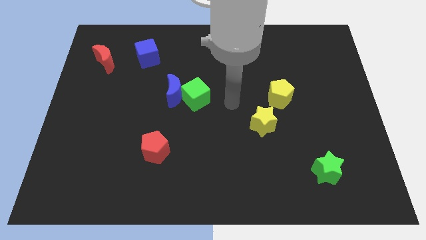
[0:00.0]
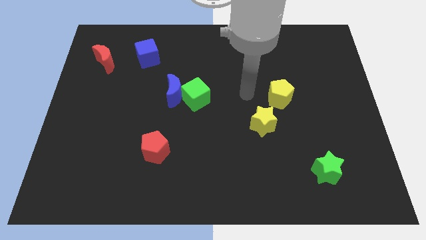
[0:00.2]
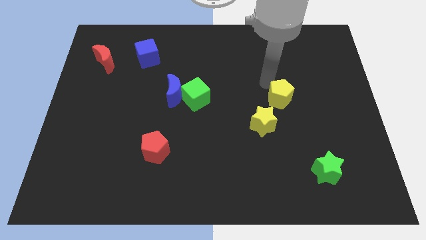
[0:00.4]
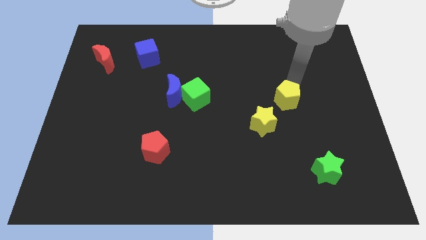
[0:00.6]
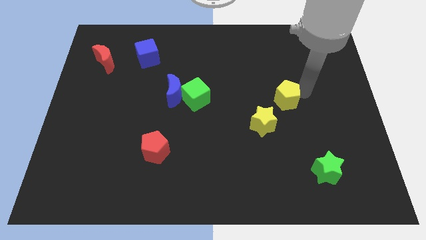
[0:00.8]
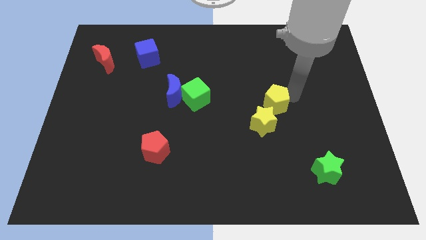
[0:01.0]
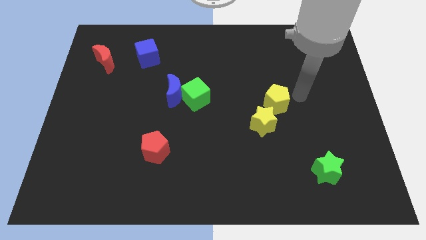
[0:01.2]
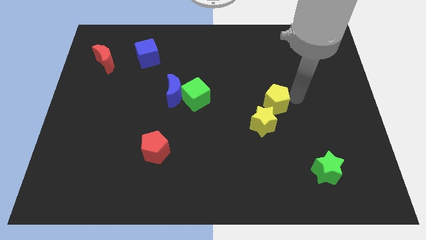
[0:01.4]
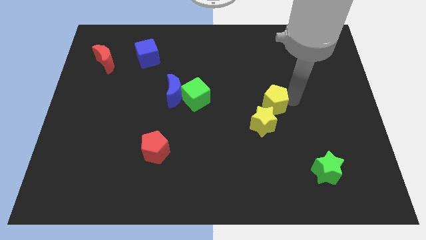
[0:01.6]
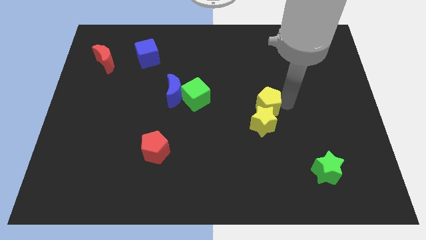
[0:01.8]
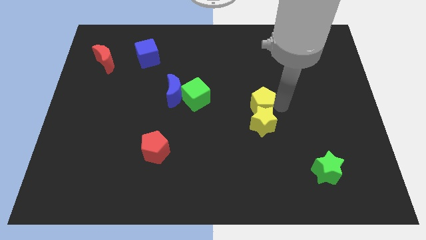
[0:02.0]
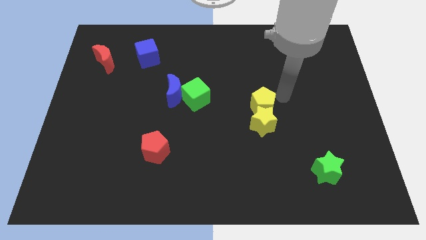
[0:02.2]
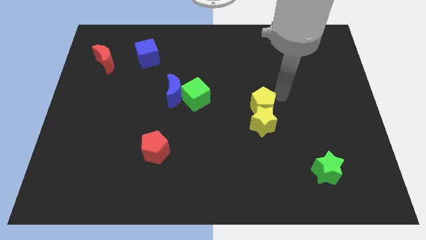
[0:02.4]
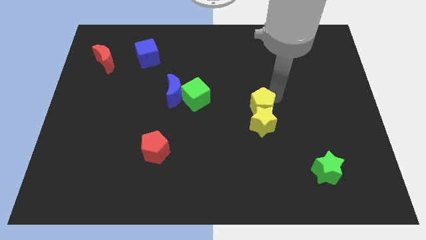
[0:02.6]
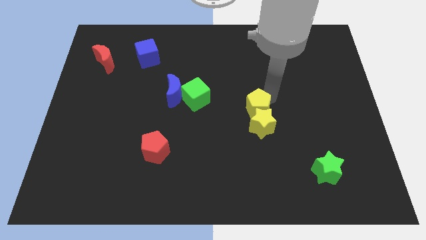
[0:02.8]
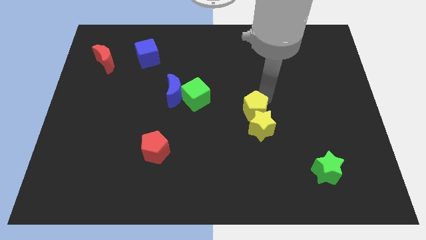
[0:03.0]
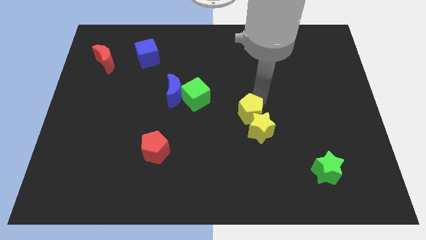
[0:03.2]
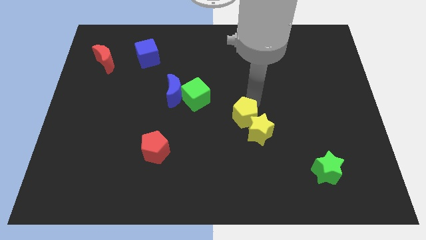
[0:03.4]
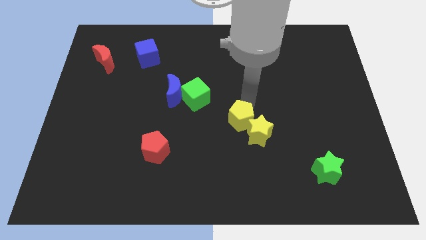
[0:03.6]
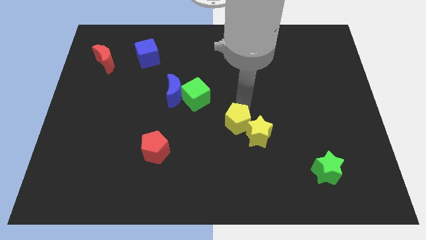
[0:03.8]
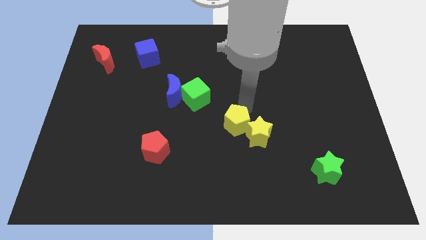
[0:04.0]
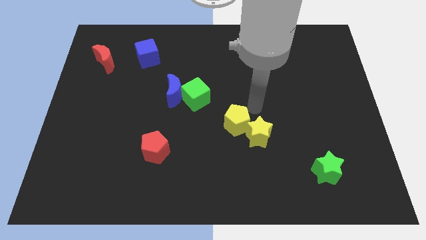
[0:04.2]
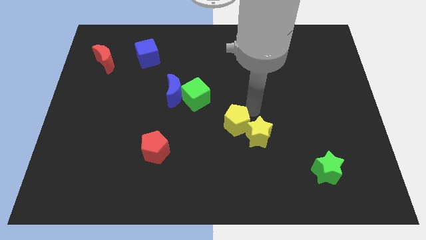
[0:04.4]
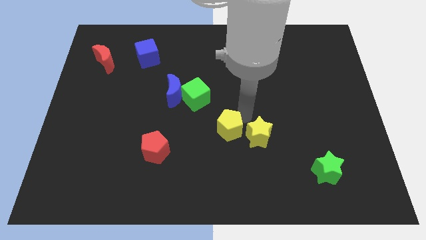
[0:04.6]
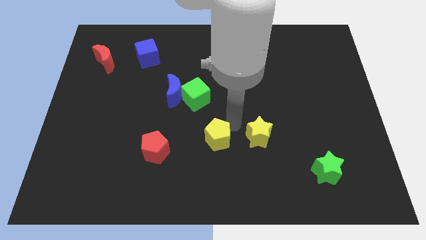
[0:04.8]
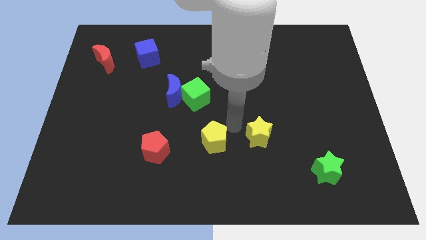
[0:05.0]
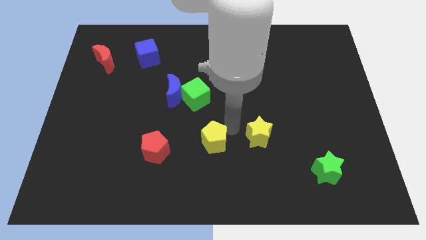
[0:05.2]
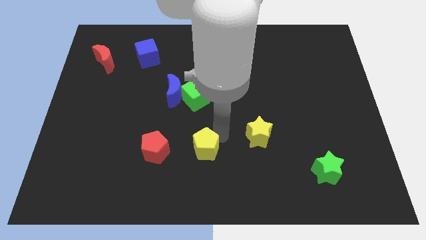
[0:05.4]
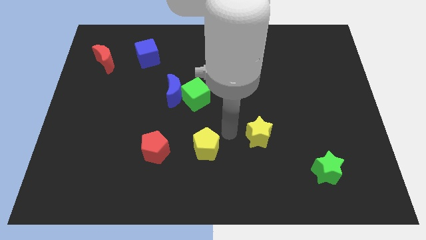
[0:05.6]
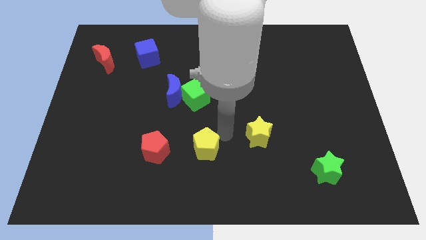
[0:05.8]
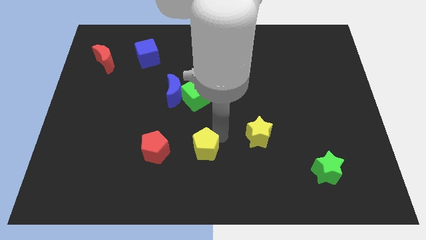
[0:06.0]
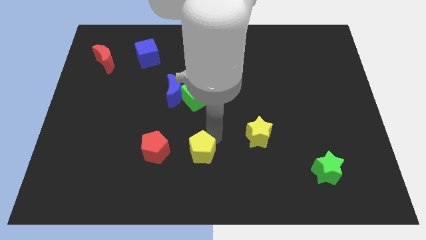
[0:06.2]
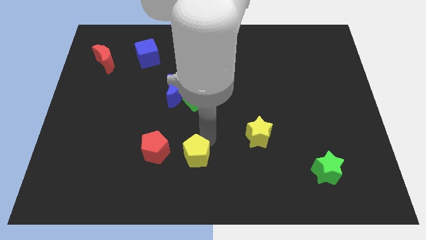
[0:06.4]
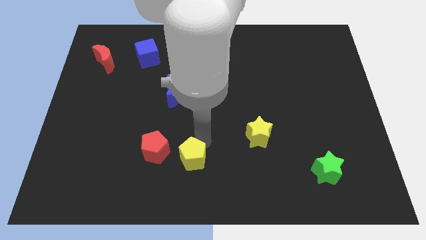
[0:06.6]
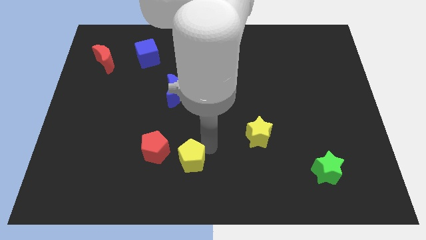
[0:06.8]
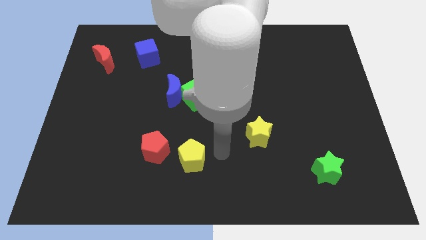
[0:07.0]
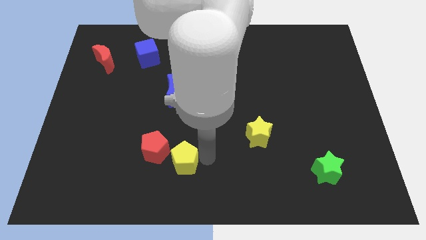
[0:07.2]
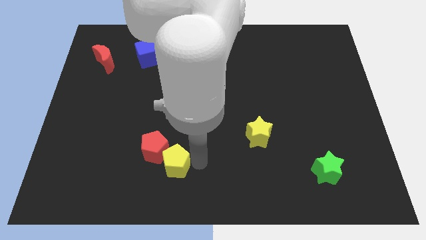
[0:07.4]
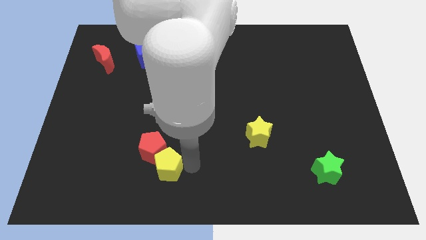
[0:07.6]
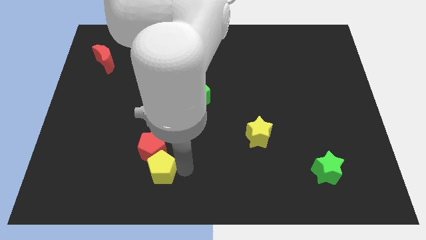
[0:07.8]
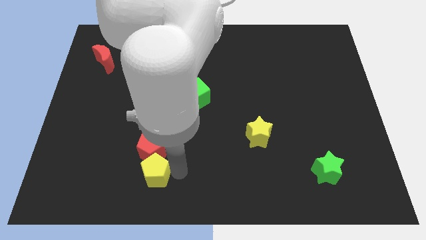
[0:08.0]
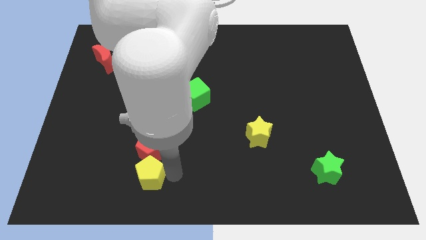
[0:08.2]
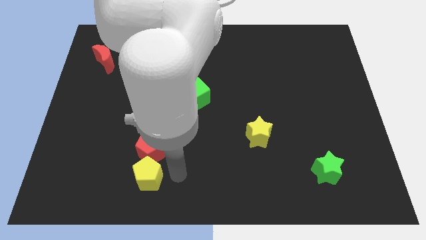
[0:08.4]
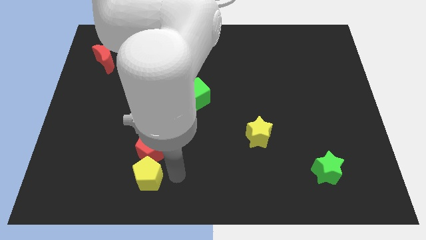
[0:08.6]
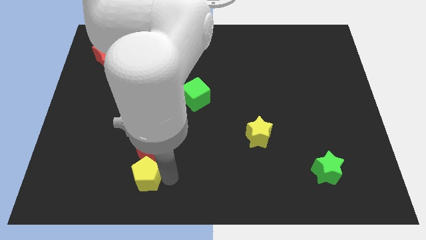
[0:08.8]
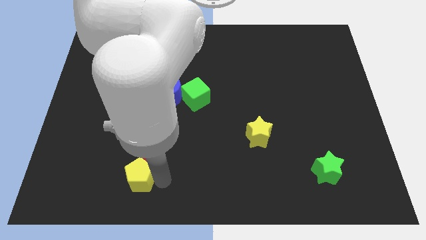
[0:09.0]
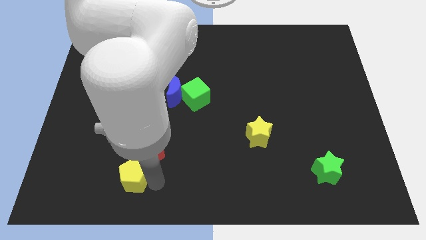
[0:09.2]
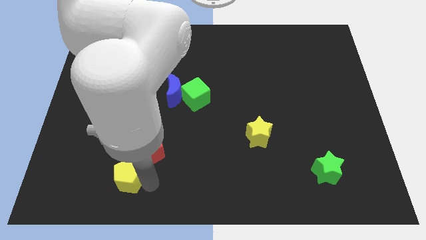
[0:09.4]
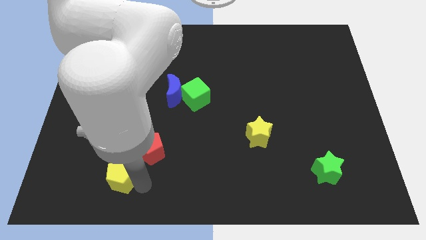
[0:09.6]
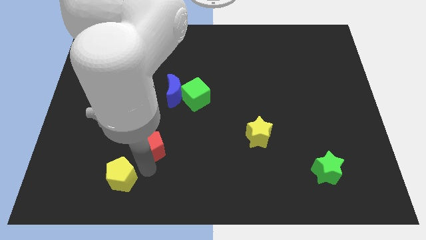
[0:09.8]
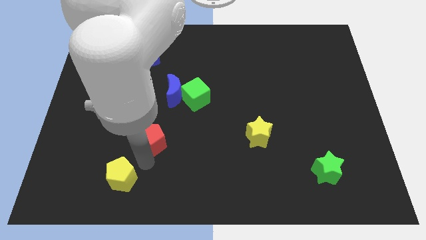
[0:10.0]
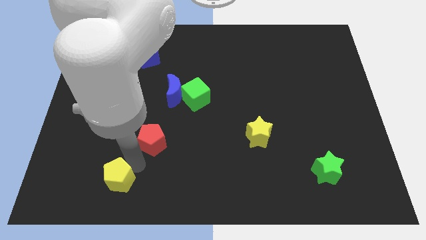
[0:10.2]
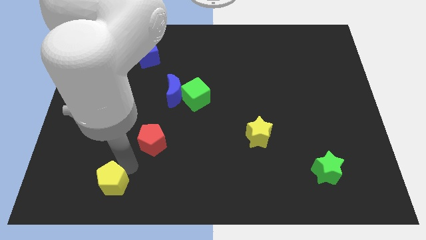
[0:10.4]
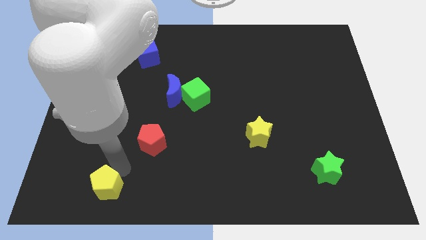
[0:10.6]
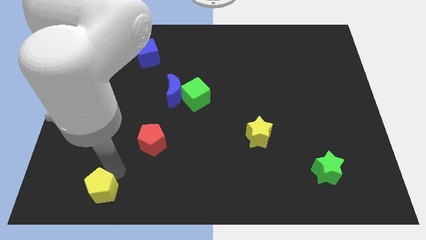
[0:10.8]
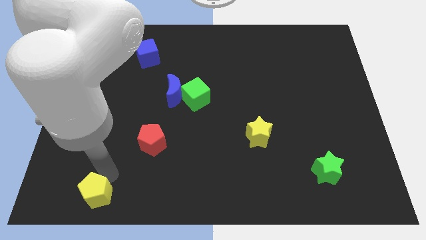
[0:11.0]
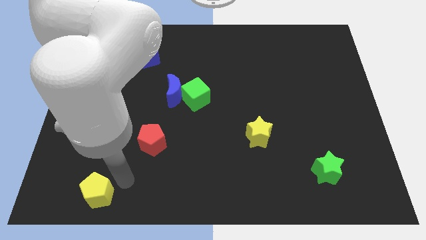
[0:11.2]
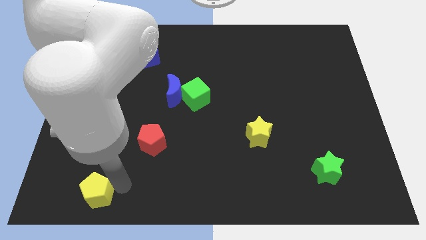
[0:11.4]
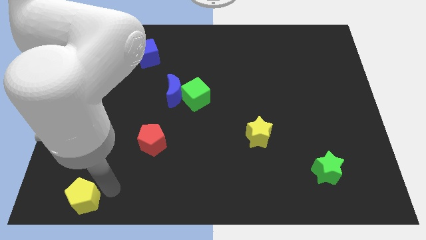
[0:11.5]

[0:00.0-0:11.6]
push the yellow pentagon to the bottom left of the board
